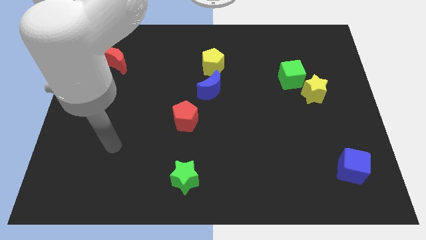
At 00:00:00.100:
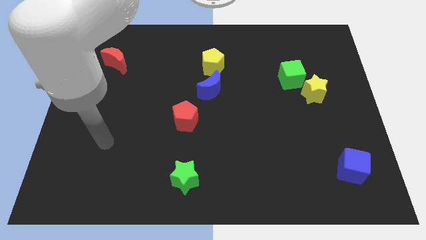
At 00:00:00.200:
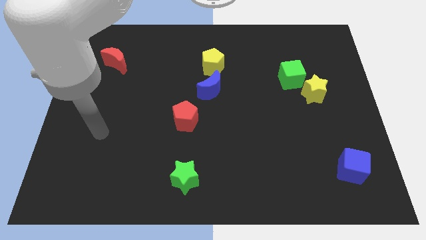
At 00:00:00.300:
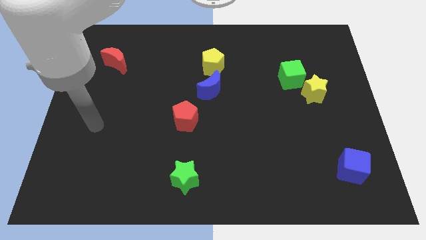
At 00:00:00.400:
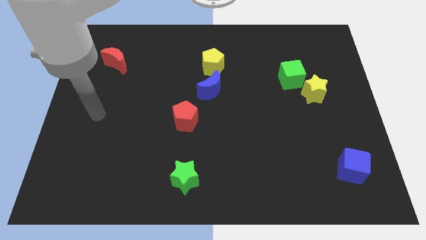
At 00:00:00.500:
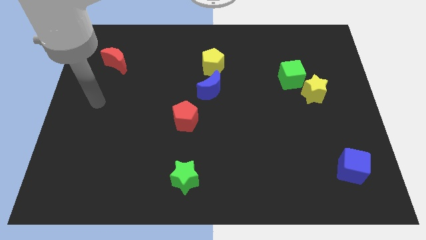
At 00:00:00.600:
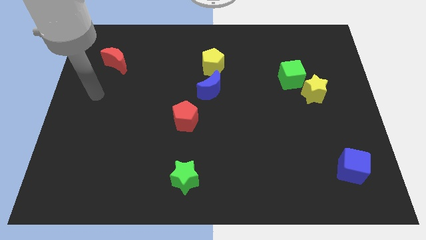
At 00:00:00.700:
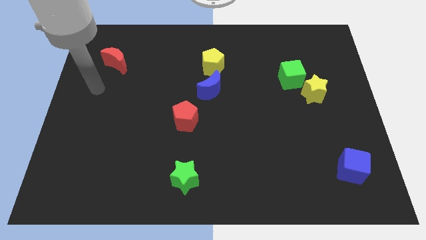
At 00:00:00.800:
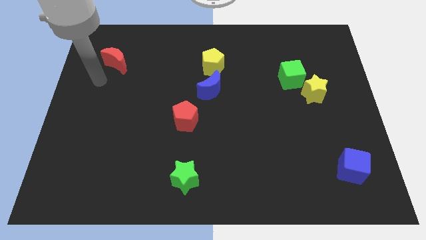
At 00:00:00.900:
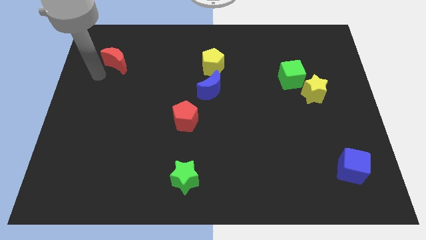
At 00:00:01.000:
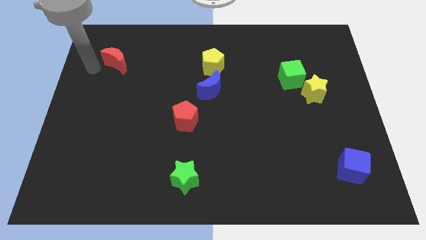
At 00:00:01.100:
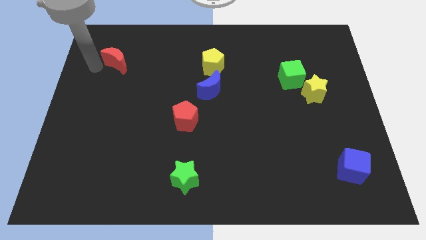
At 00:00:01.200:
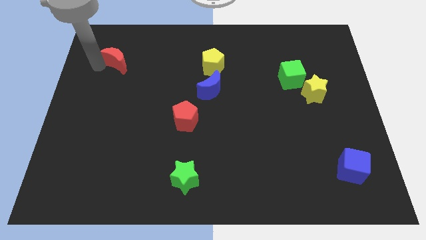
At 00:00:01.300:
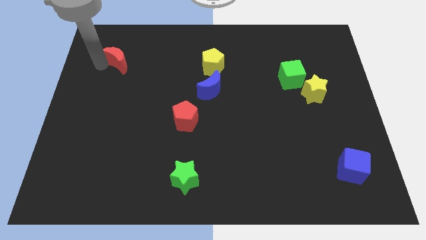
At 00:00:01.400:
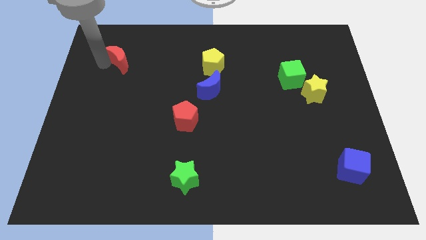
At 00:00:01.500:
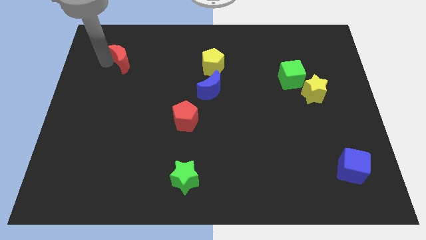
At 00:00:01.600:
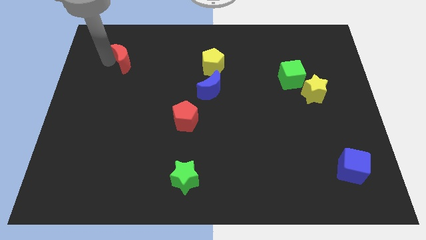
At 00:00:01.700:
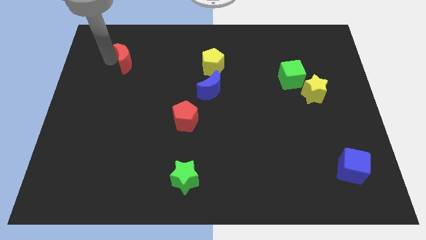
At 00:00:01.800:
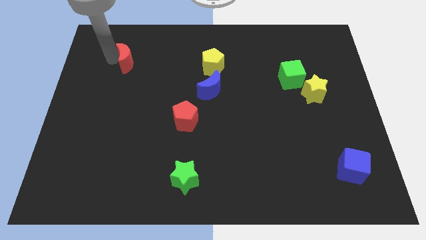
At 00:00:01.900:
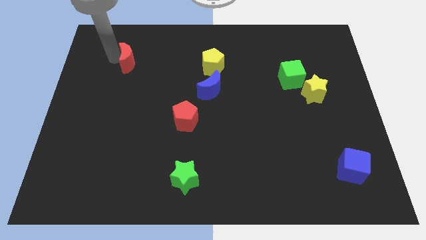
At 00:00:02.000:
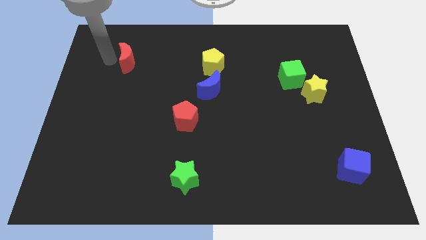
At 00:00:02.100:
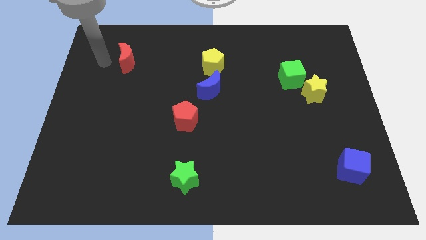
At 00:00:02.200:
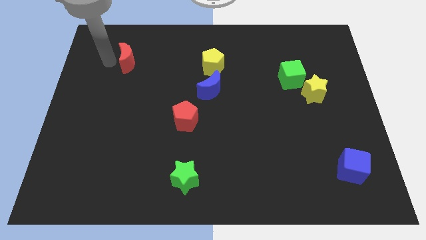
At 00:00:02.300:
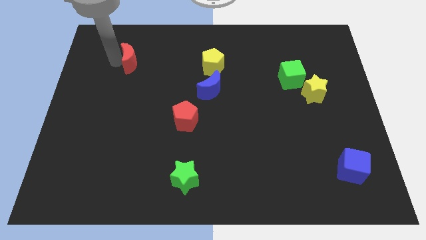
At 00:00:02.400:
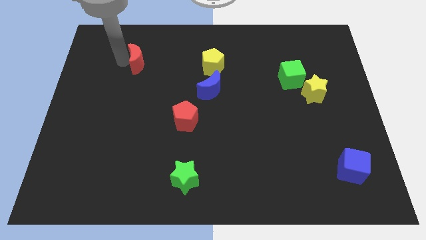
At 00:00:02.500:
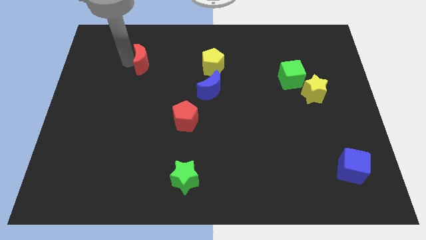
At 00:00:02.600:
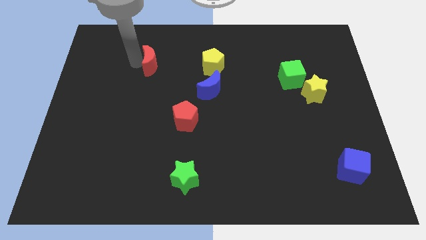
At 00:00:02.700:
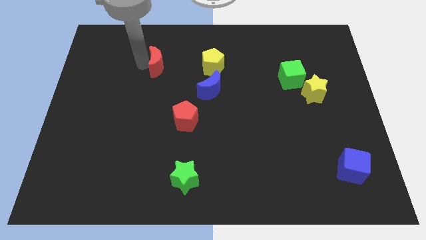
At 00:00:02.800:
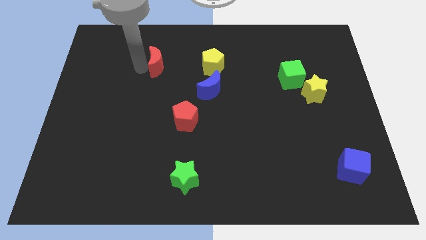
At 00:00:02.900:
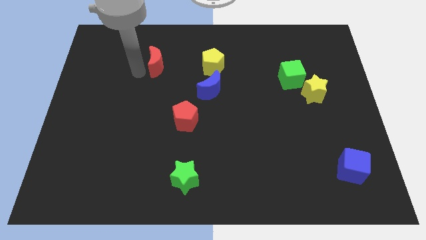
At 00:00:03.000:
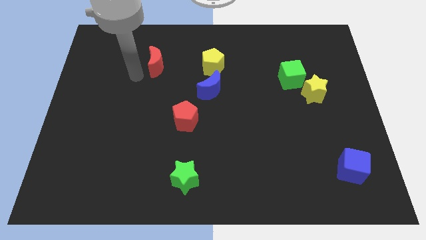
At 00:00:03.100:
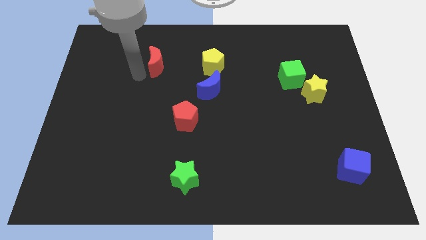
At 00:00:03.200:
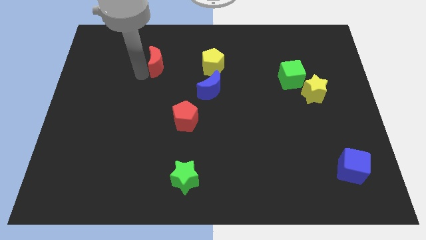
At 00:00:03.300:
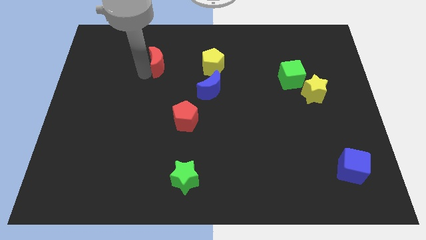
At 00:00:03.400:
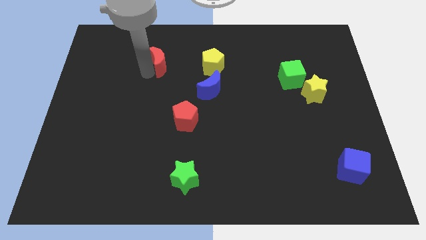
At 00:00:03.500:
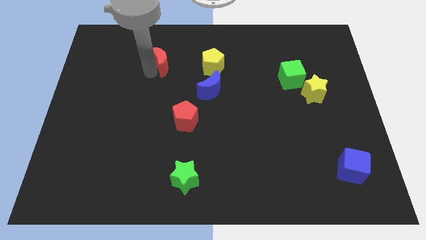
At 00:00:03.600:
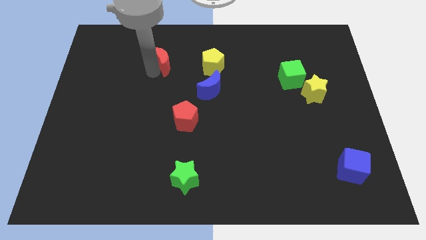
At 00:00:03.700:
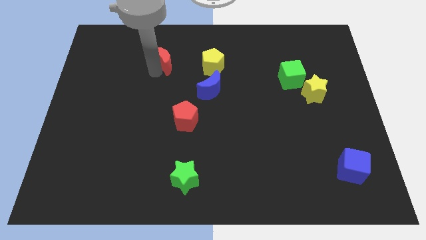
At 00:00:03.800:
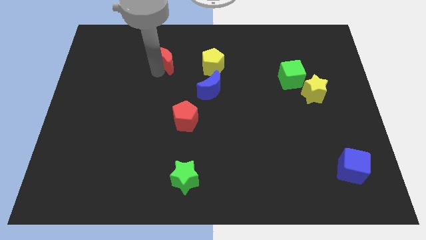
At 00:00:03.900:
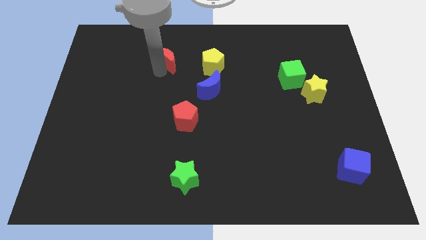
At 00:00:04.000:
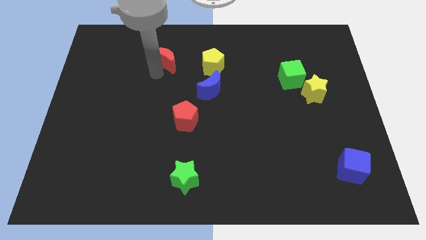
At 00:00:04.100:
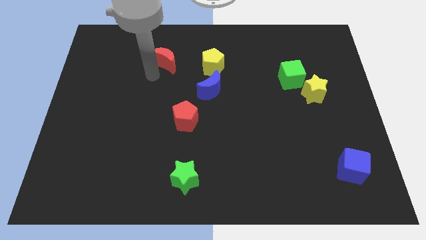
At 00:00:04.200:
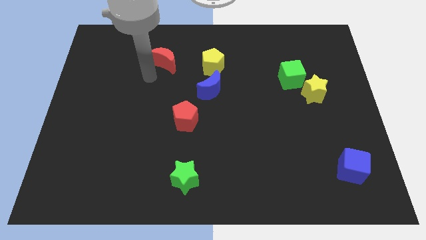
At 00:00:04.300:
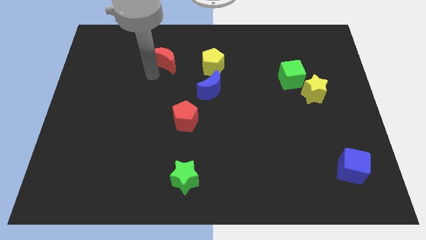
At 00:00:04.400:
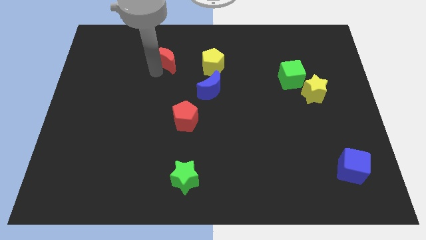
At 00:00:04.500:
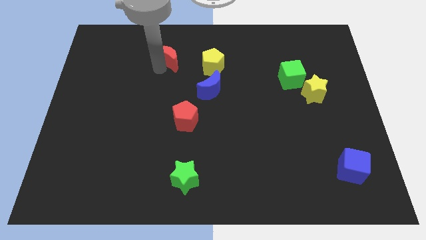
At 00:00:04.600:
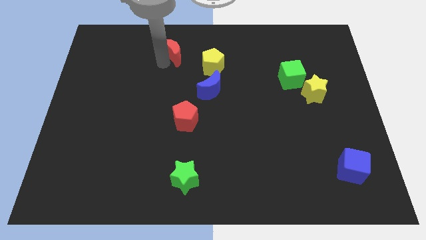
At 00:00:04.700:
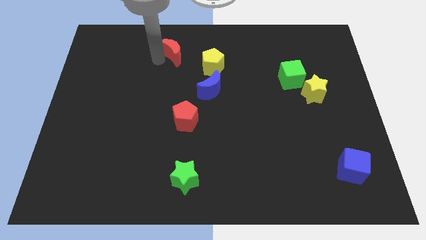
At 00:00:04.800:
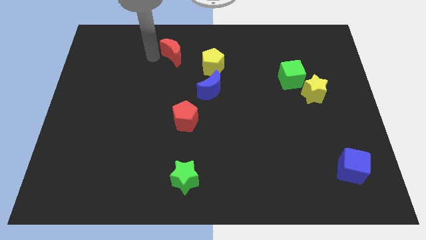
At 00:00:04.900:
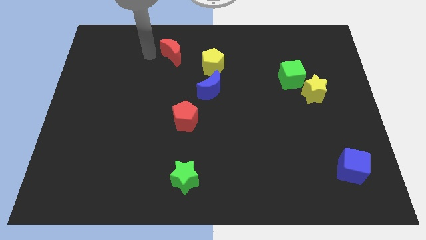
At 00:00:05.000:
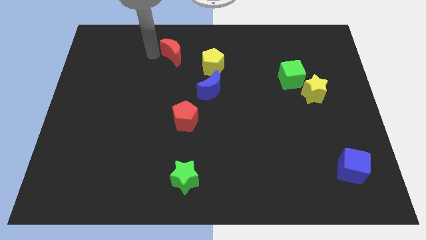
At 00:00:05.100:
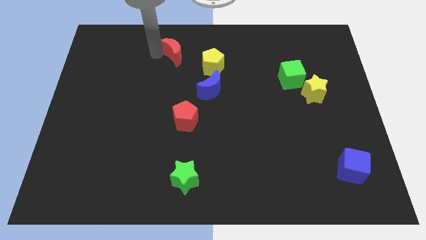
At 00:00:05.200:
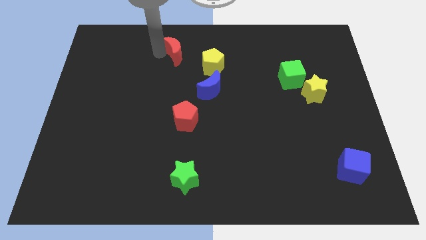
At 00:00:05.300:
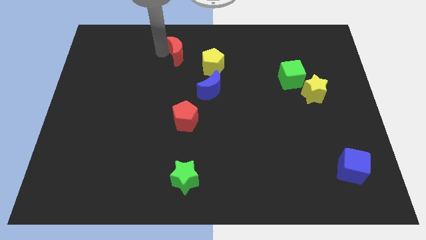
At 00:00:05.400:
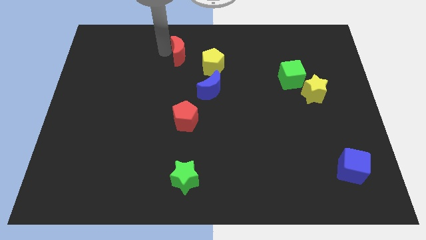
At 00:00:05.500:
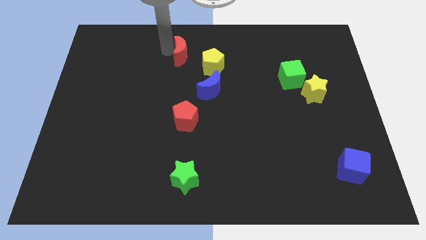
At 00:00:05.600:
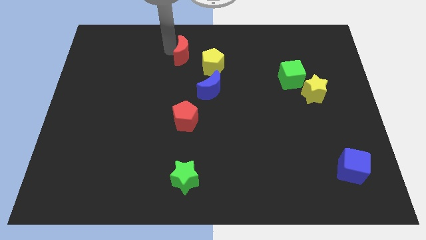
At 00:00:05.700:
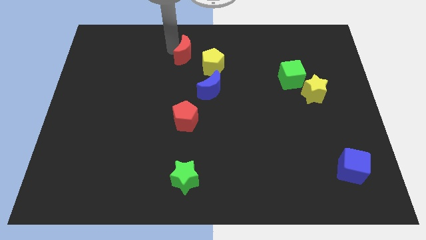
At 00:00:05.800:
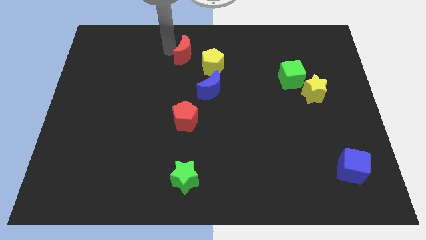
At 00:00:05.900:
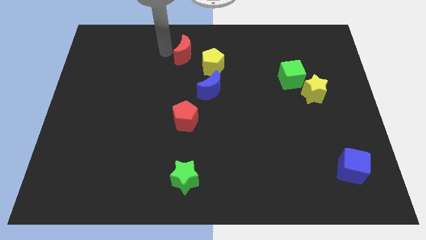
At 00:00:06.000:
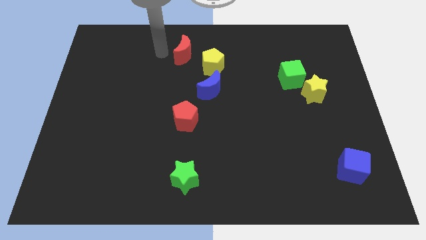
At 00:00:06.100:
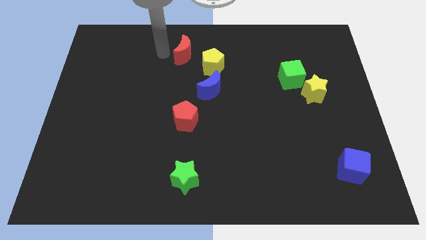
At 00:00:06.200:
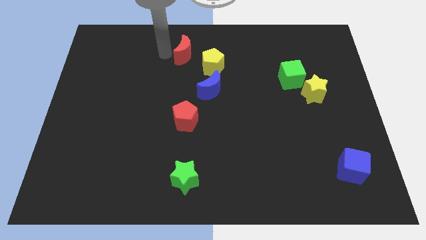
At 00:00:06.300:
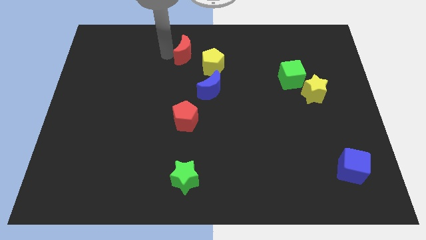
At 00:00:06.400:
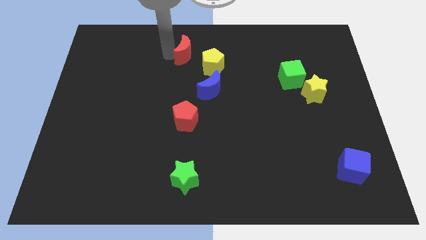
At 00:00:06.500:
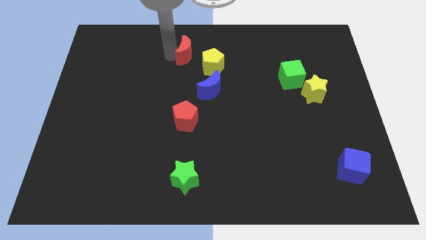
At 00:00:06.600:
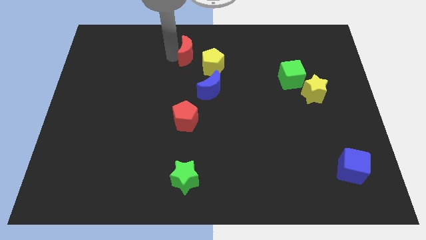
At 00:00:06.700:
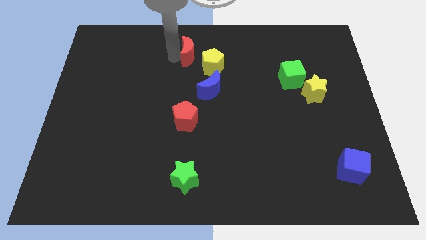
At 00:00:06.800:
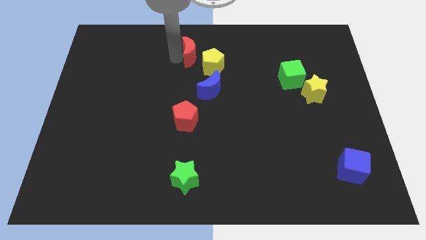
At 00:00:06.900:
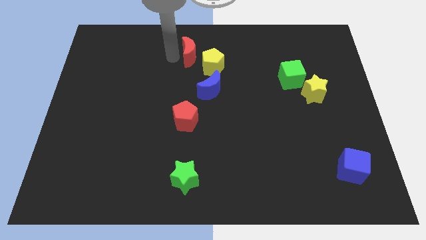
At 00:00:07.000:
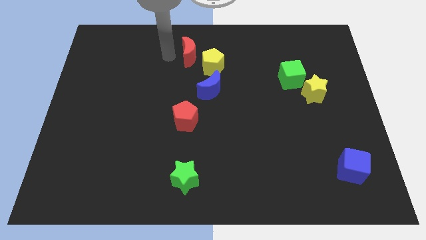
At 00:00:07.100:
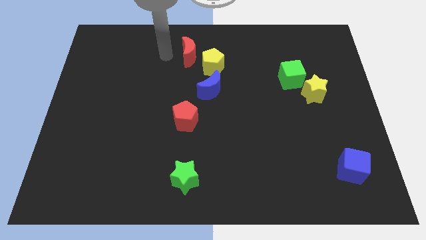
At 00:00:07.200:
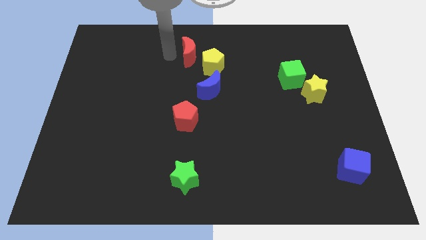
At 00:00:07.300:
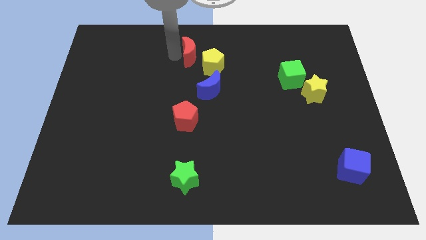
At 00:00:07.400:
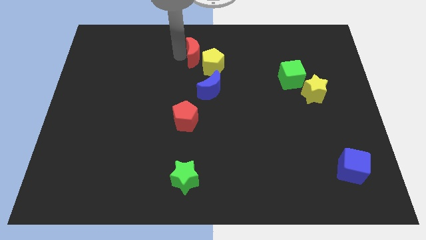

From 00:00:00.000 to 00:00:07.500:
push the red moon right

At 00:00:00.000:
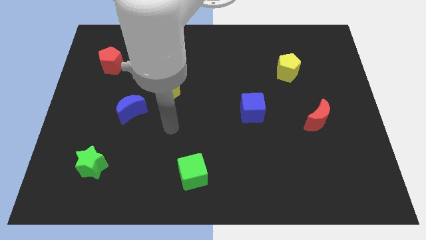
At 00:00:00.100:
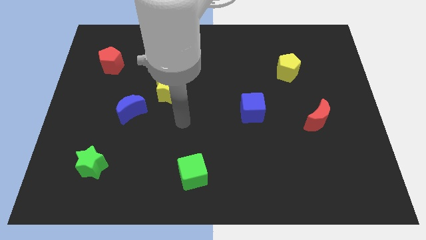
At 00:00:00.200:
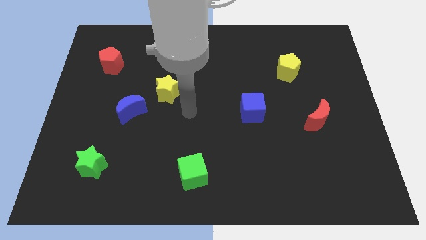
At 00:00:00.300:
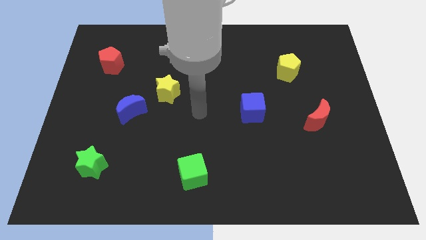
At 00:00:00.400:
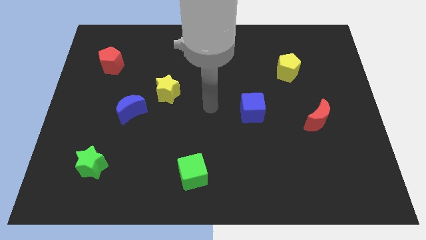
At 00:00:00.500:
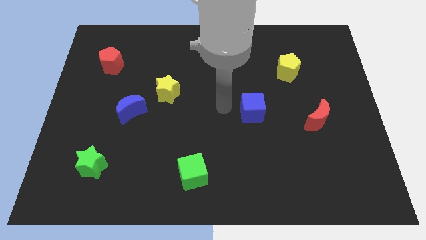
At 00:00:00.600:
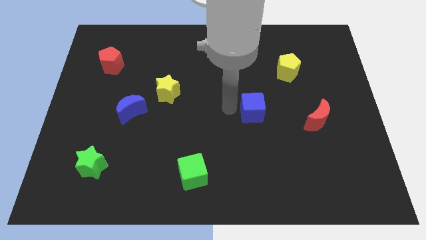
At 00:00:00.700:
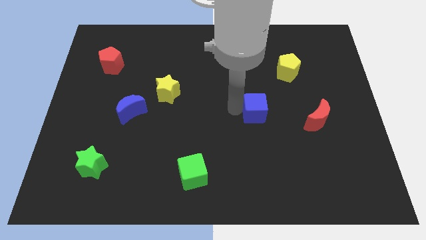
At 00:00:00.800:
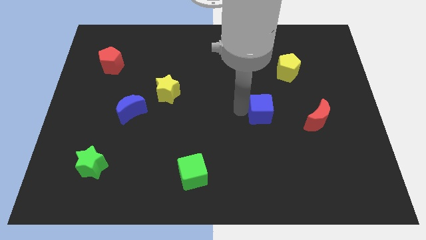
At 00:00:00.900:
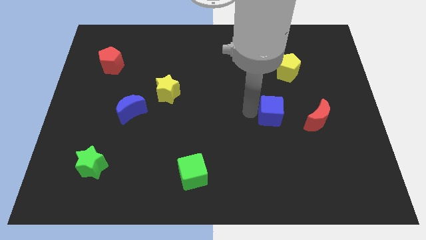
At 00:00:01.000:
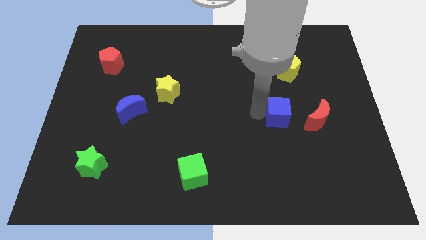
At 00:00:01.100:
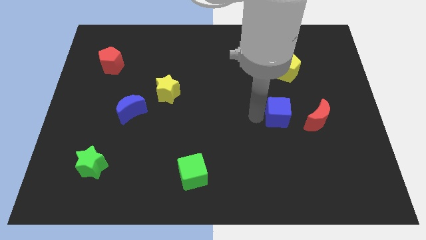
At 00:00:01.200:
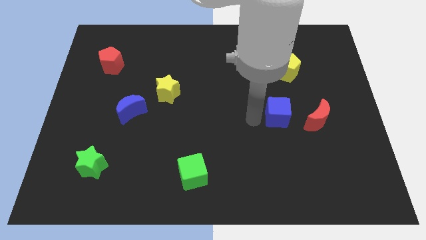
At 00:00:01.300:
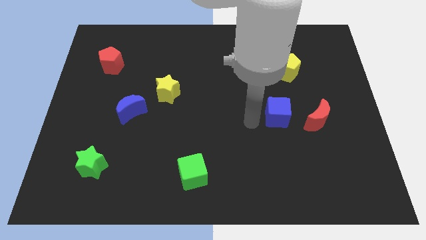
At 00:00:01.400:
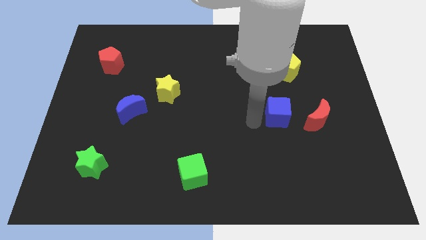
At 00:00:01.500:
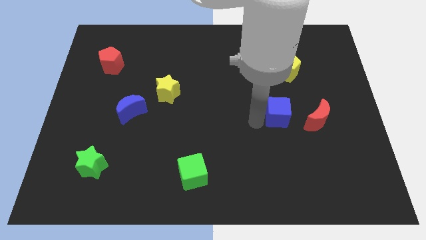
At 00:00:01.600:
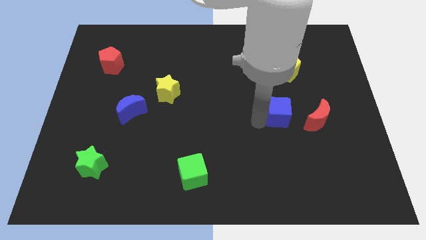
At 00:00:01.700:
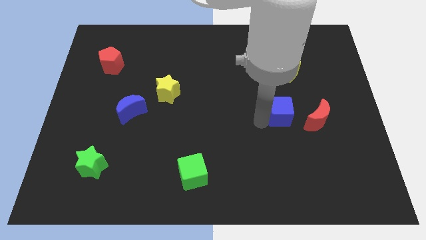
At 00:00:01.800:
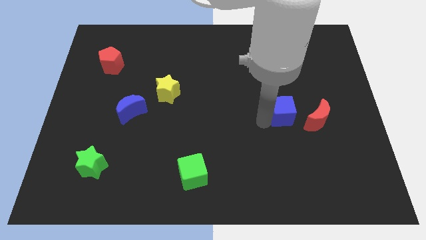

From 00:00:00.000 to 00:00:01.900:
slightly move the blue cube to the right
